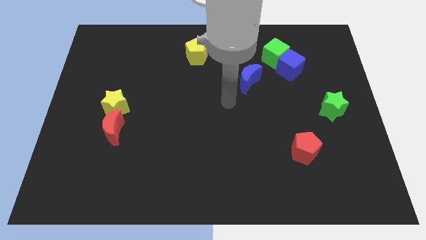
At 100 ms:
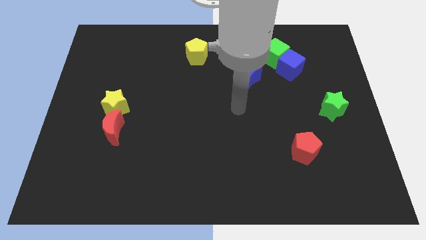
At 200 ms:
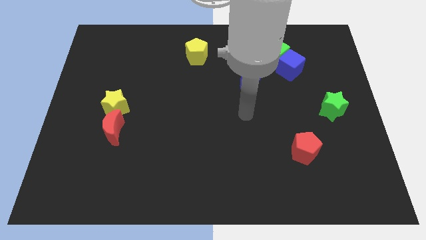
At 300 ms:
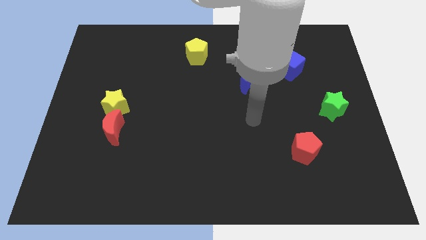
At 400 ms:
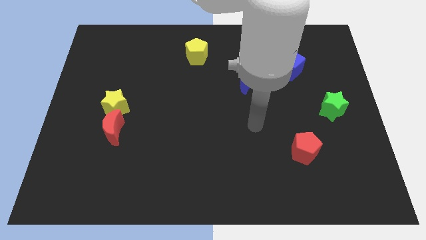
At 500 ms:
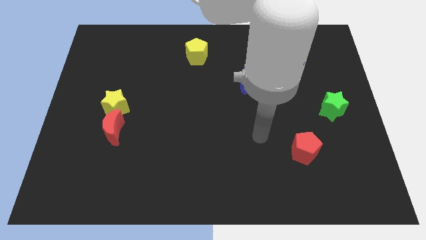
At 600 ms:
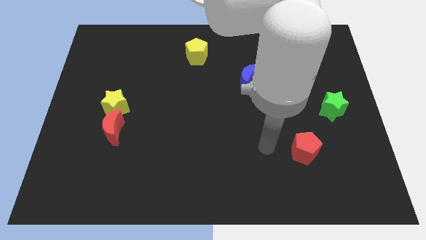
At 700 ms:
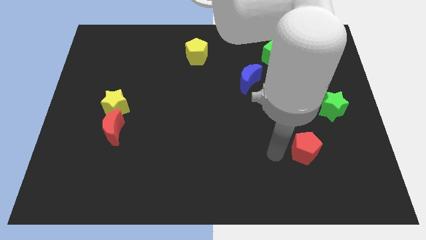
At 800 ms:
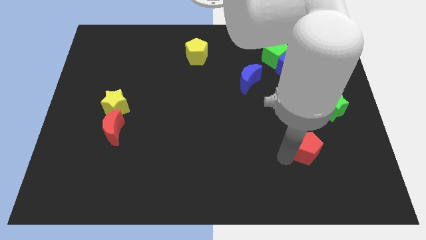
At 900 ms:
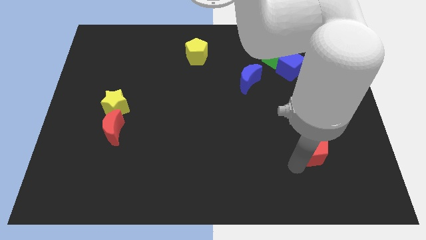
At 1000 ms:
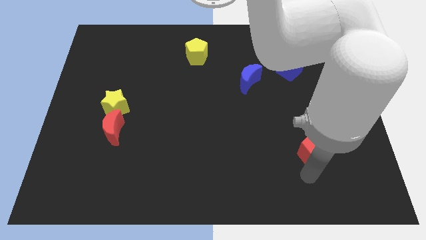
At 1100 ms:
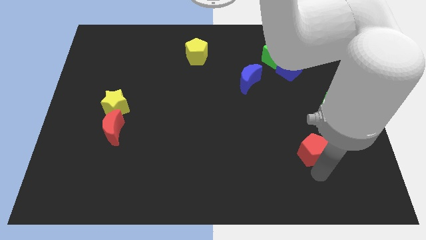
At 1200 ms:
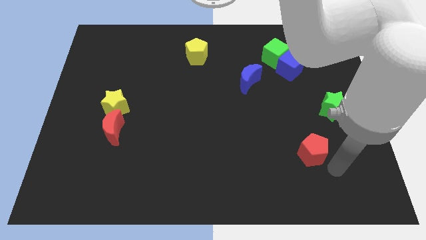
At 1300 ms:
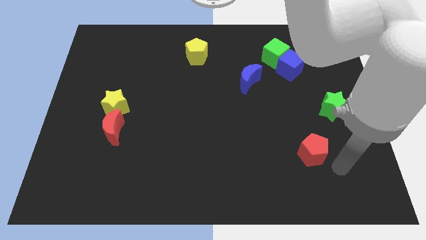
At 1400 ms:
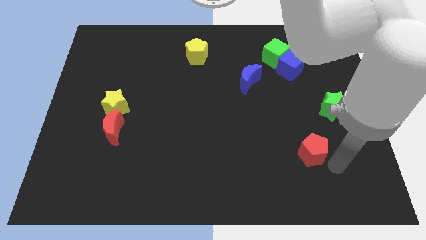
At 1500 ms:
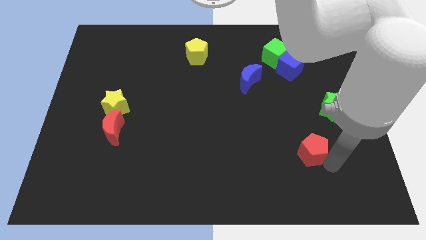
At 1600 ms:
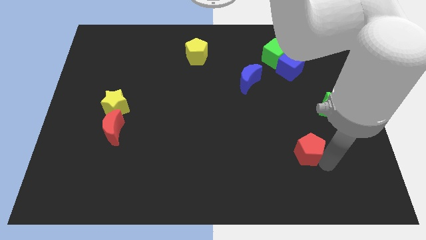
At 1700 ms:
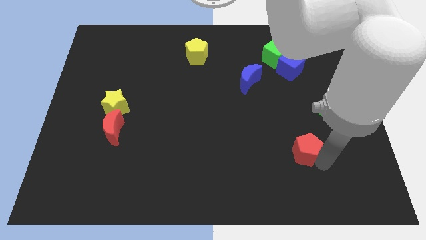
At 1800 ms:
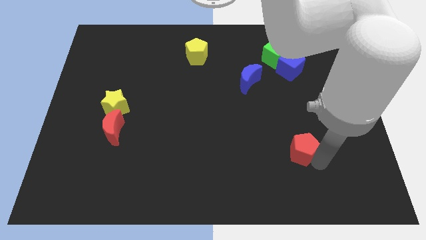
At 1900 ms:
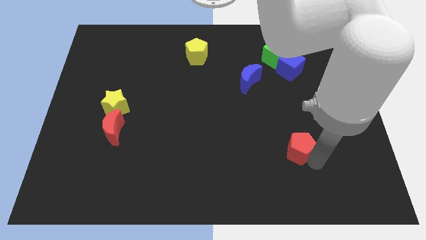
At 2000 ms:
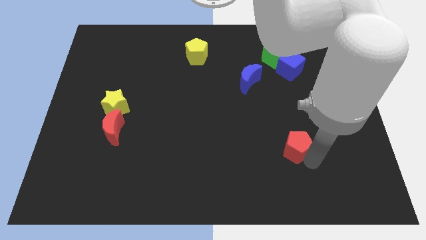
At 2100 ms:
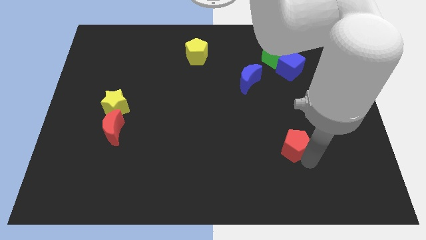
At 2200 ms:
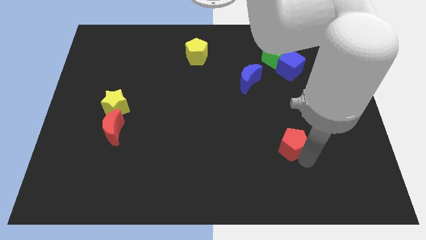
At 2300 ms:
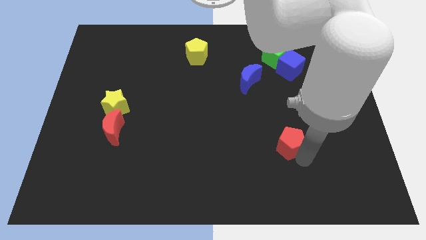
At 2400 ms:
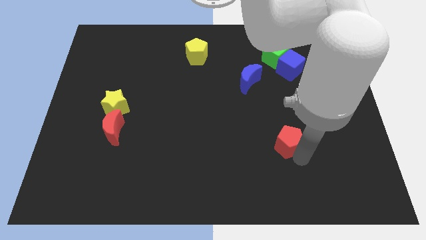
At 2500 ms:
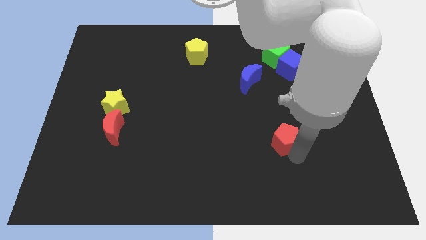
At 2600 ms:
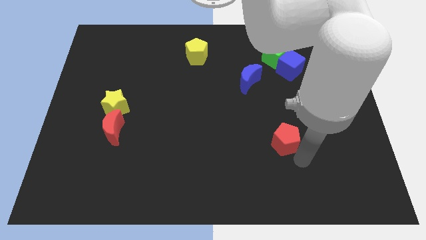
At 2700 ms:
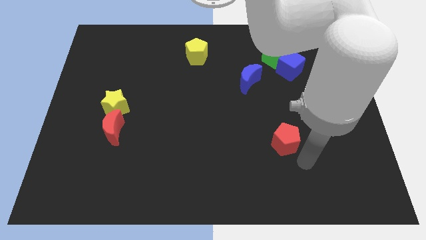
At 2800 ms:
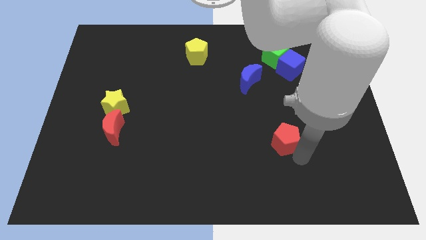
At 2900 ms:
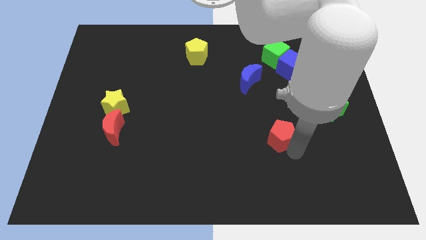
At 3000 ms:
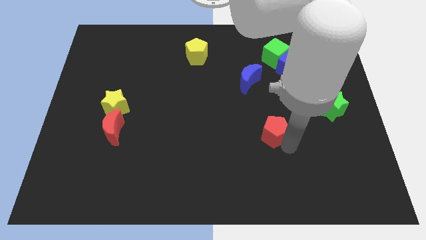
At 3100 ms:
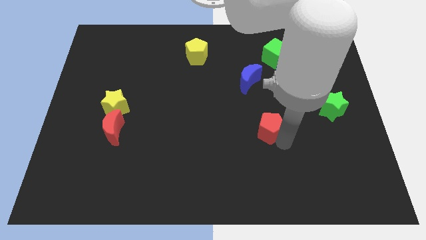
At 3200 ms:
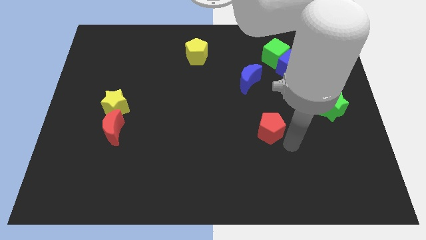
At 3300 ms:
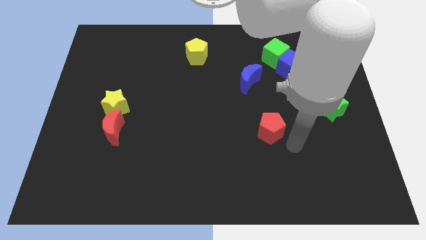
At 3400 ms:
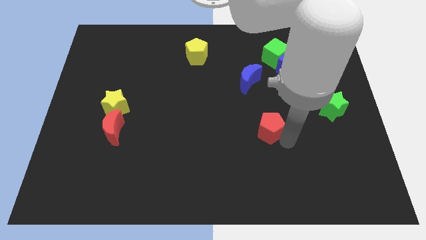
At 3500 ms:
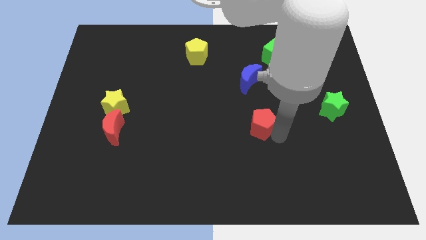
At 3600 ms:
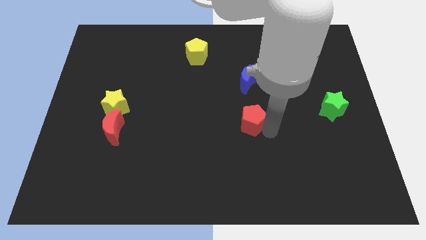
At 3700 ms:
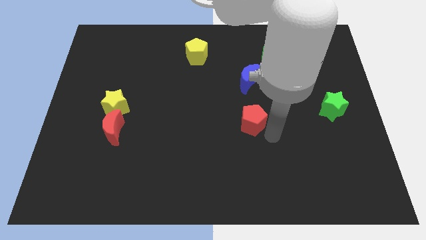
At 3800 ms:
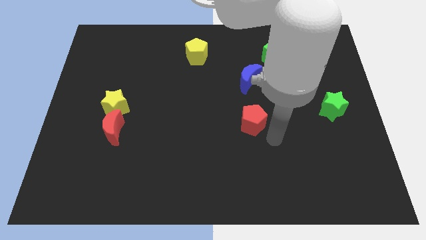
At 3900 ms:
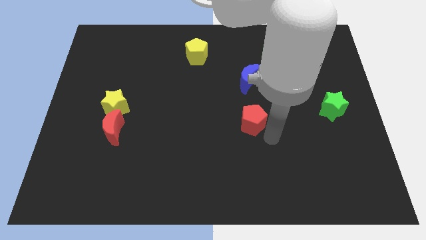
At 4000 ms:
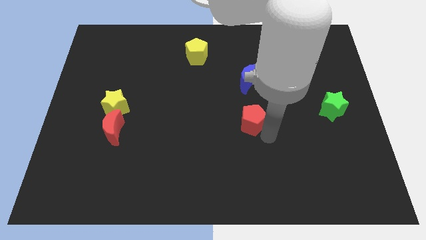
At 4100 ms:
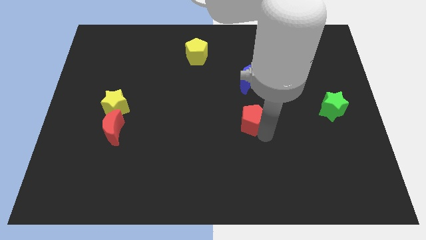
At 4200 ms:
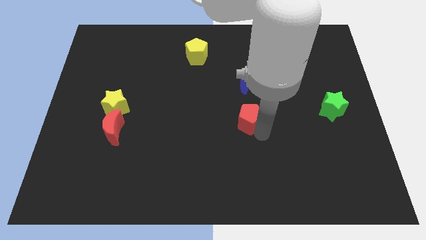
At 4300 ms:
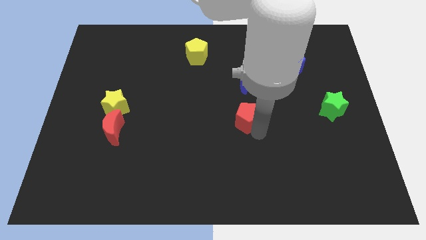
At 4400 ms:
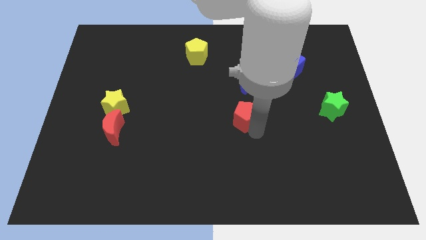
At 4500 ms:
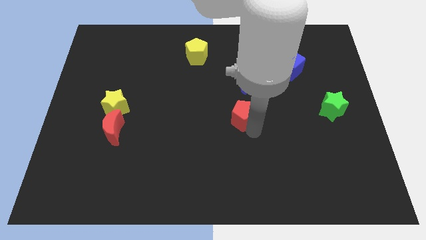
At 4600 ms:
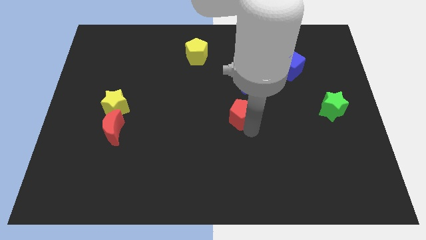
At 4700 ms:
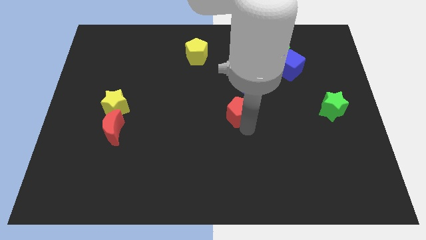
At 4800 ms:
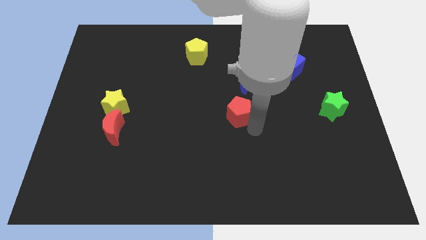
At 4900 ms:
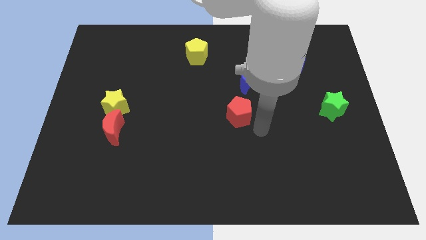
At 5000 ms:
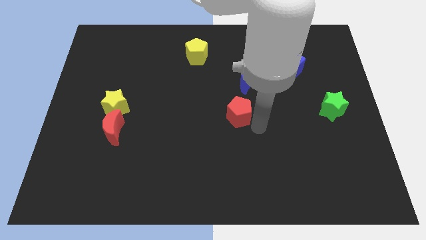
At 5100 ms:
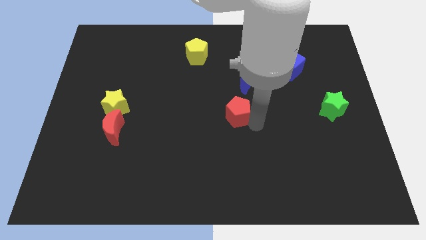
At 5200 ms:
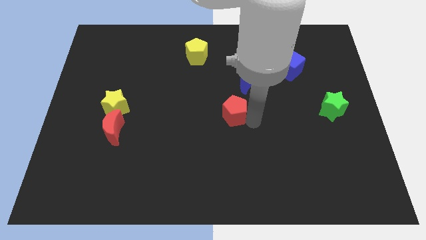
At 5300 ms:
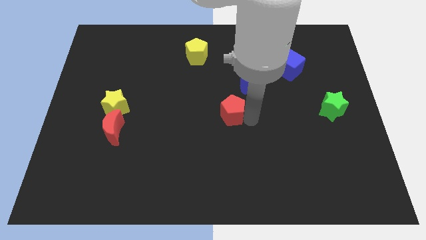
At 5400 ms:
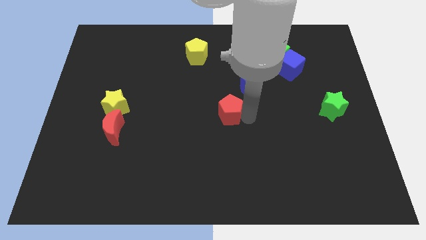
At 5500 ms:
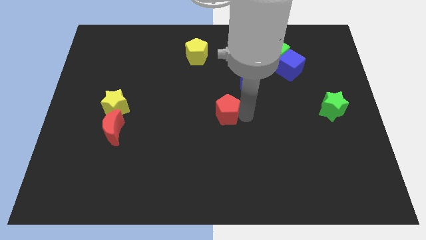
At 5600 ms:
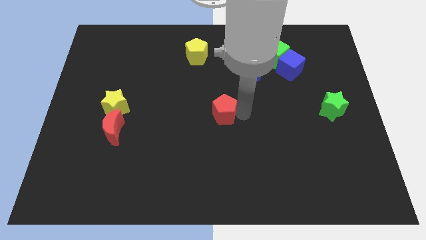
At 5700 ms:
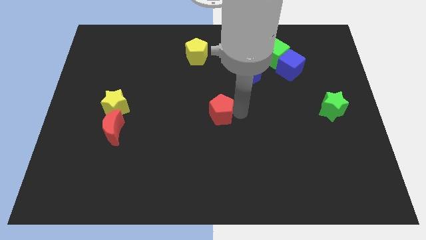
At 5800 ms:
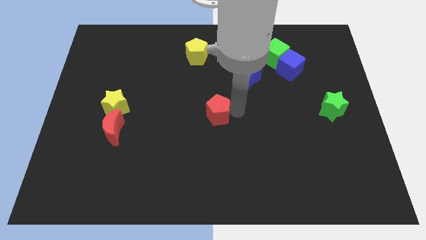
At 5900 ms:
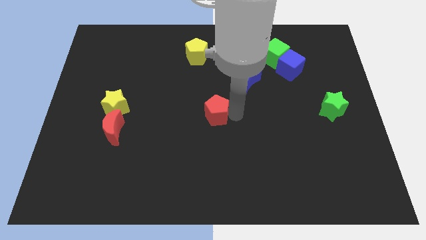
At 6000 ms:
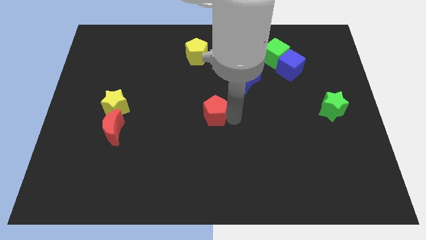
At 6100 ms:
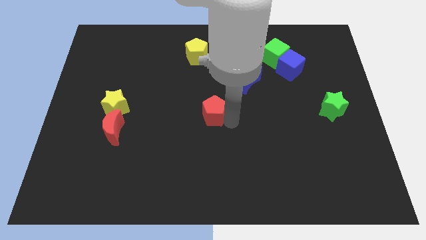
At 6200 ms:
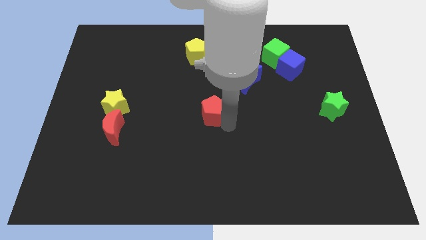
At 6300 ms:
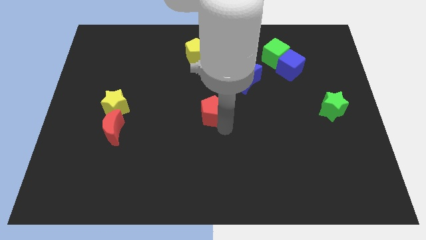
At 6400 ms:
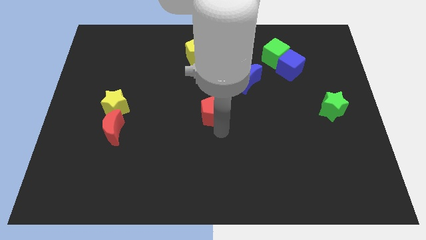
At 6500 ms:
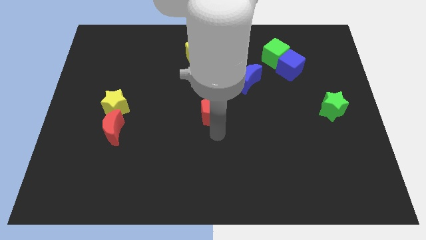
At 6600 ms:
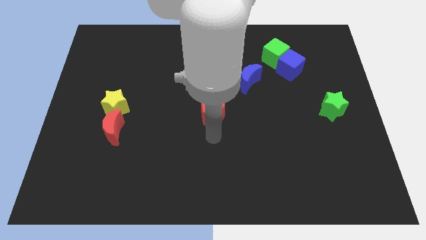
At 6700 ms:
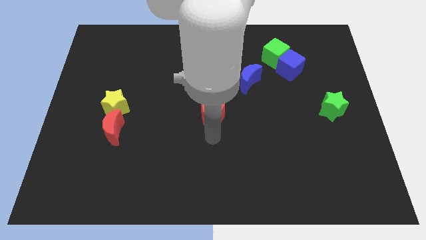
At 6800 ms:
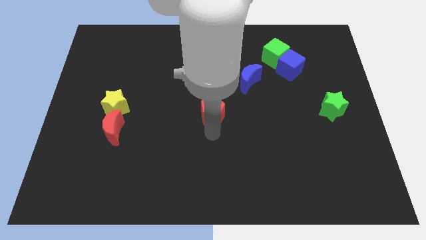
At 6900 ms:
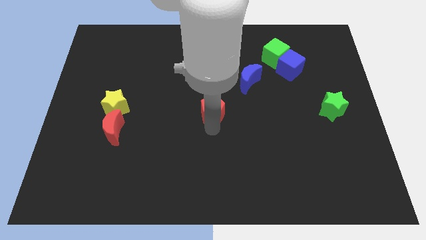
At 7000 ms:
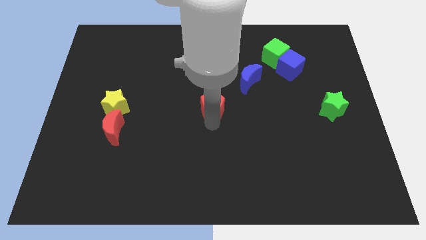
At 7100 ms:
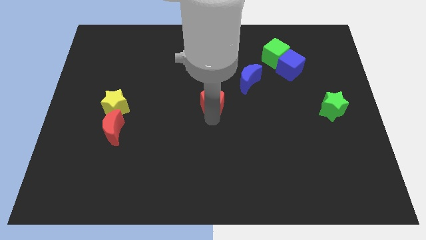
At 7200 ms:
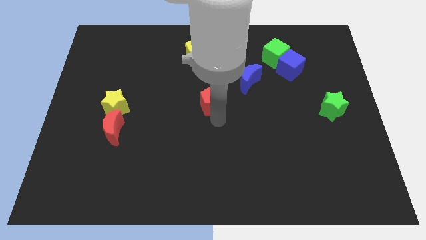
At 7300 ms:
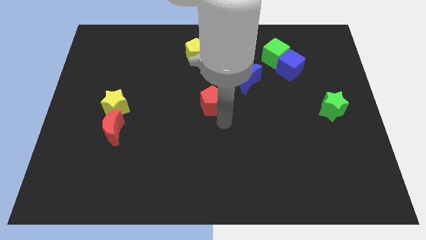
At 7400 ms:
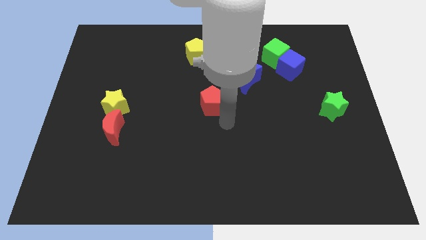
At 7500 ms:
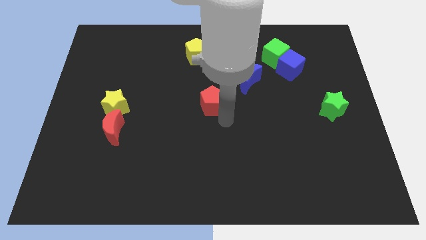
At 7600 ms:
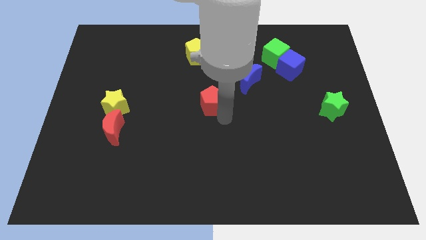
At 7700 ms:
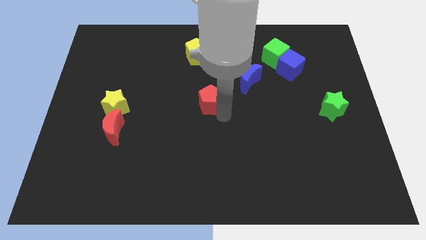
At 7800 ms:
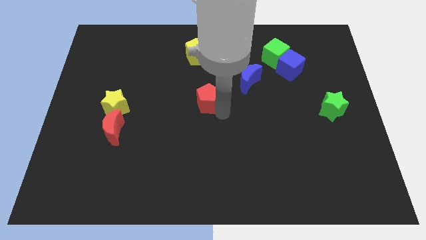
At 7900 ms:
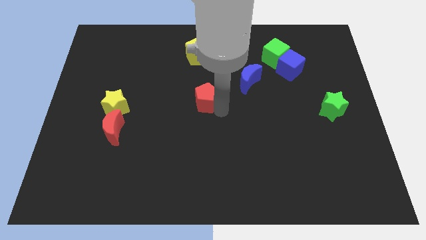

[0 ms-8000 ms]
move the red pentagon below the yellow pentagon

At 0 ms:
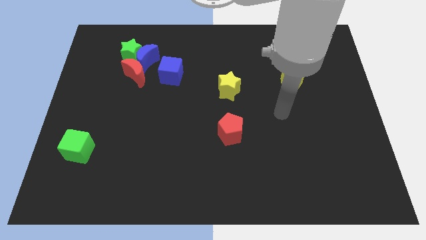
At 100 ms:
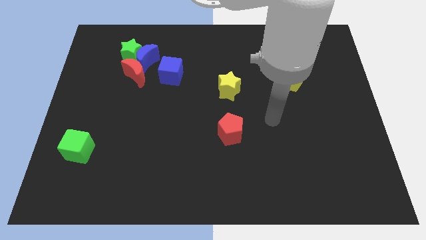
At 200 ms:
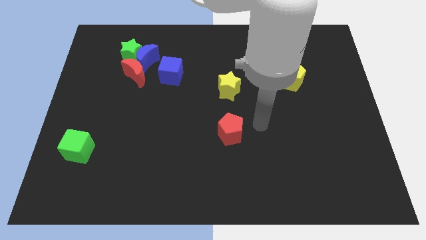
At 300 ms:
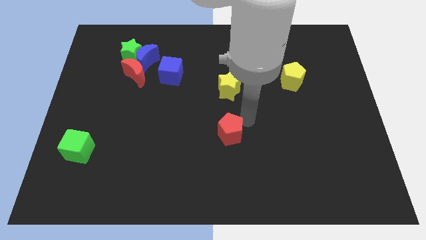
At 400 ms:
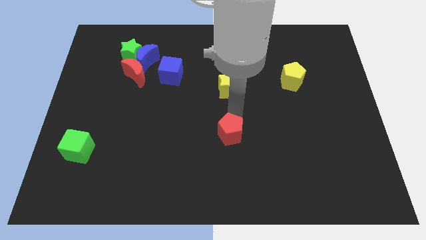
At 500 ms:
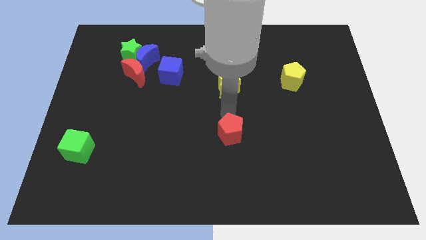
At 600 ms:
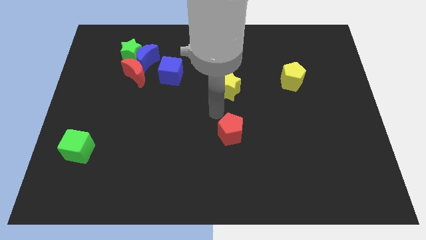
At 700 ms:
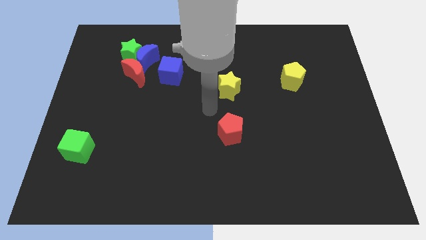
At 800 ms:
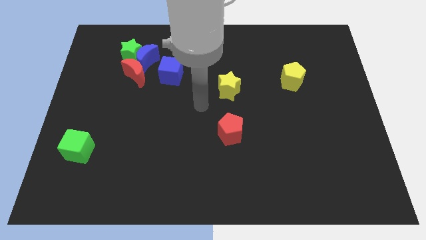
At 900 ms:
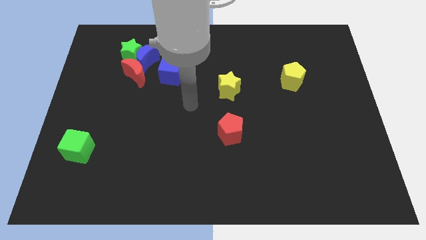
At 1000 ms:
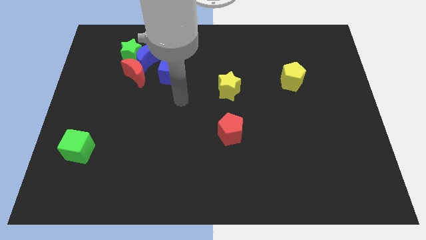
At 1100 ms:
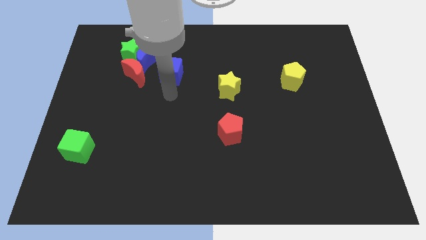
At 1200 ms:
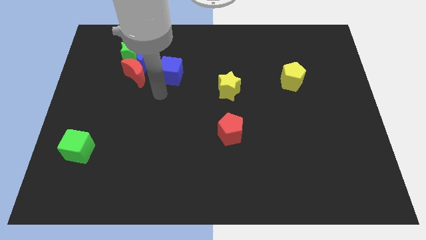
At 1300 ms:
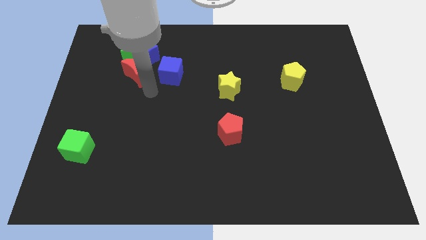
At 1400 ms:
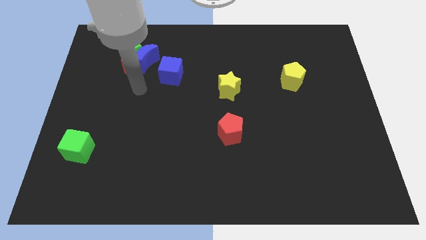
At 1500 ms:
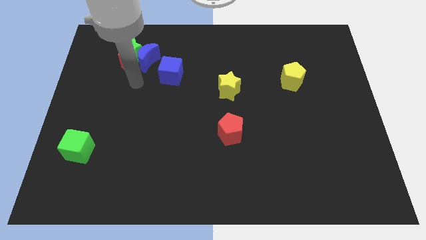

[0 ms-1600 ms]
move the blue moon to the right of the red moon
